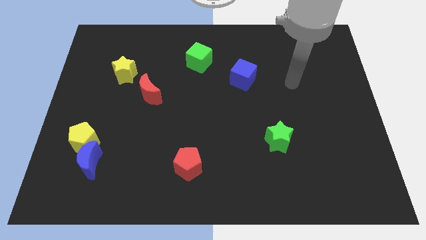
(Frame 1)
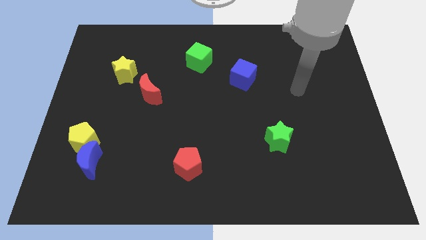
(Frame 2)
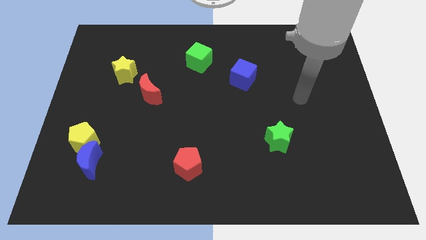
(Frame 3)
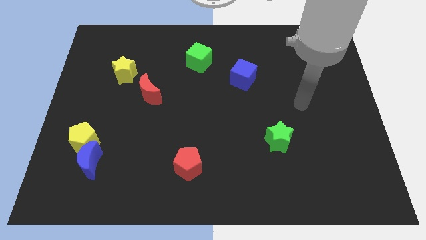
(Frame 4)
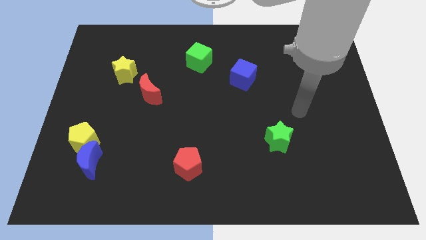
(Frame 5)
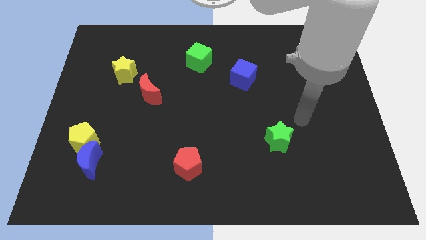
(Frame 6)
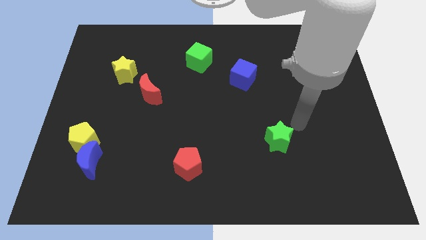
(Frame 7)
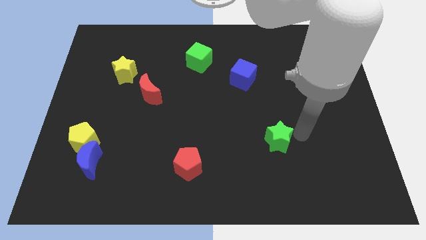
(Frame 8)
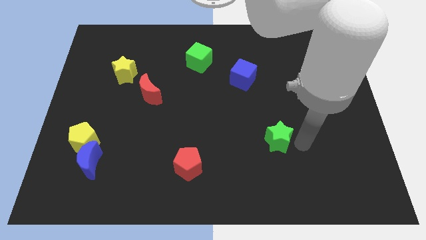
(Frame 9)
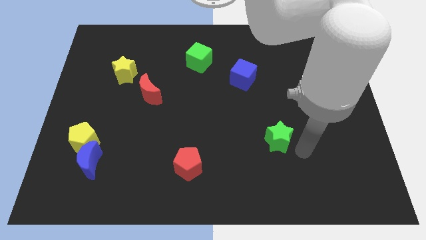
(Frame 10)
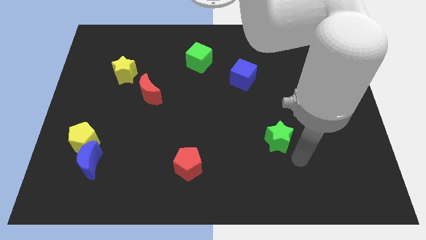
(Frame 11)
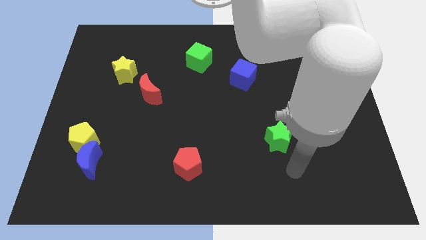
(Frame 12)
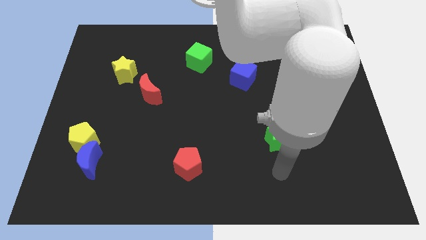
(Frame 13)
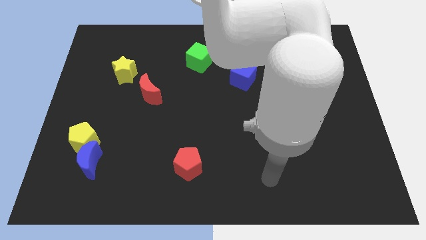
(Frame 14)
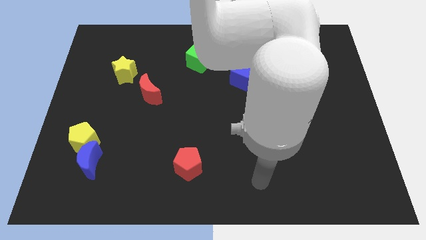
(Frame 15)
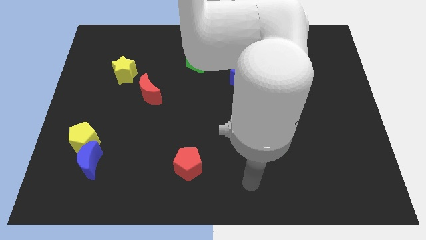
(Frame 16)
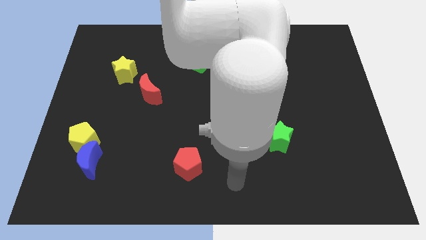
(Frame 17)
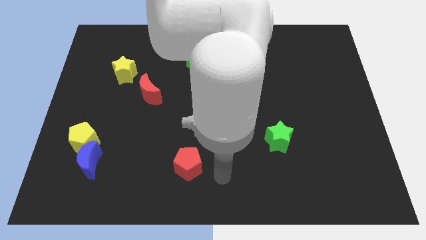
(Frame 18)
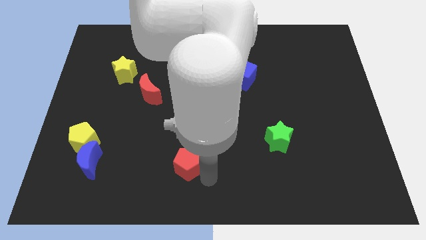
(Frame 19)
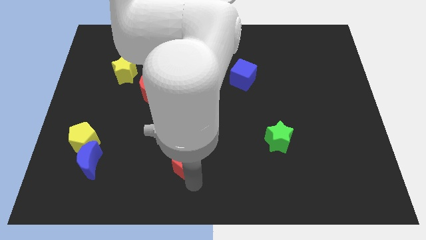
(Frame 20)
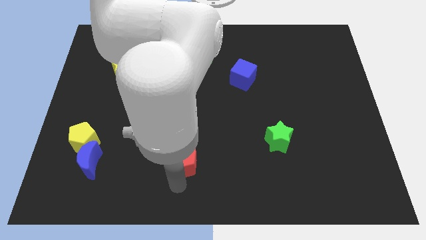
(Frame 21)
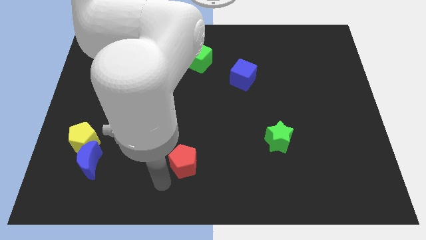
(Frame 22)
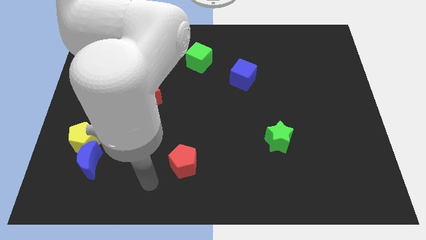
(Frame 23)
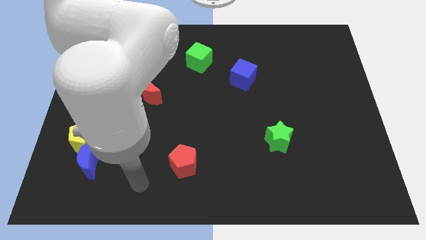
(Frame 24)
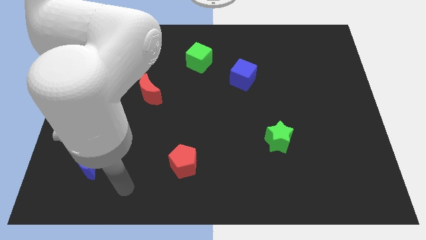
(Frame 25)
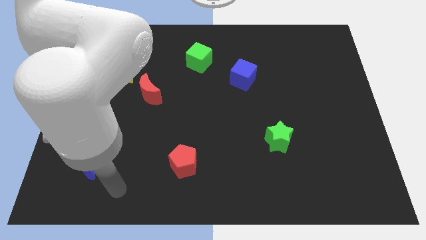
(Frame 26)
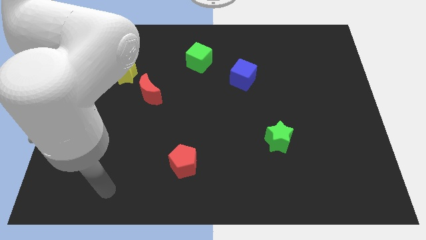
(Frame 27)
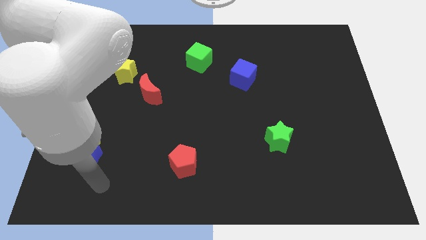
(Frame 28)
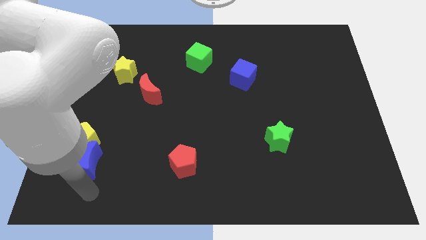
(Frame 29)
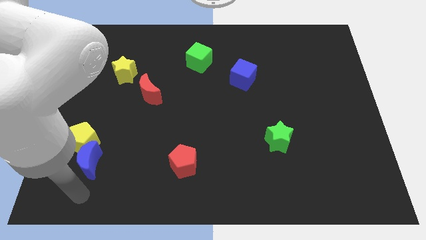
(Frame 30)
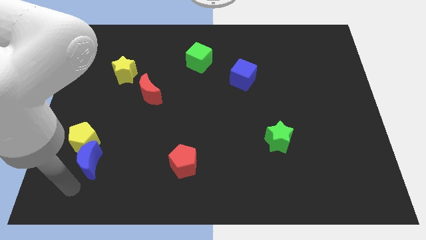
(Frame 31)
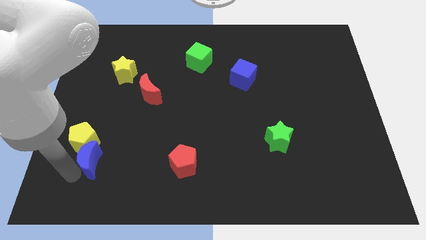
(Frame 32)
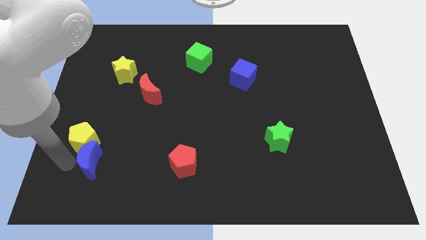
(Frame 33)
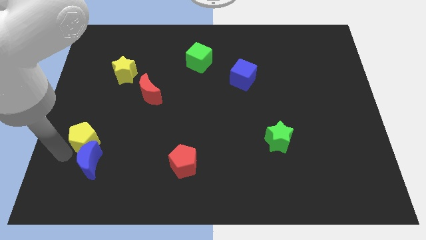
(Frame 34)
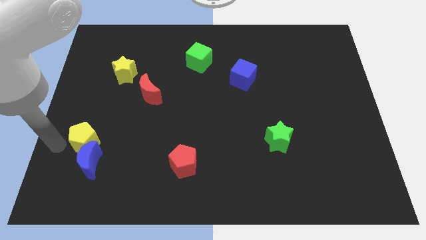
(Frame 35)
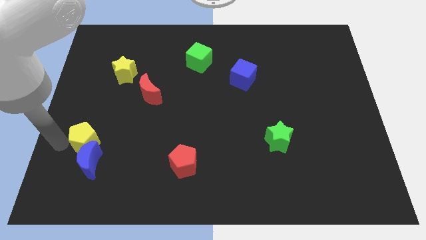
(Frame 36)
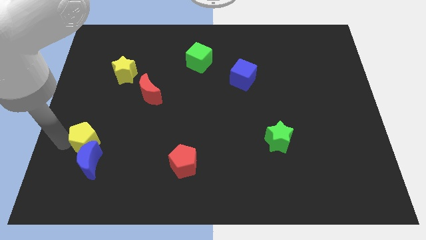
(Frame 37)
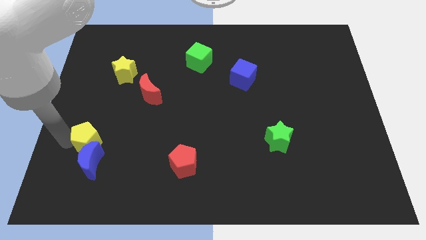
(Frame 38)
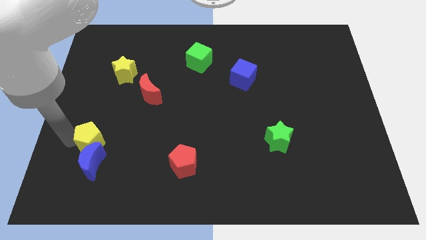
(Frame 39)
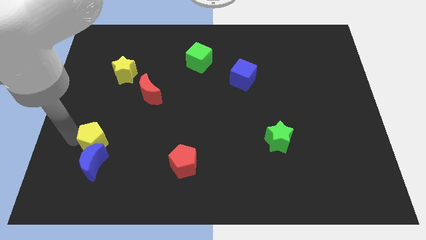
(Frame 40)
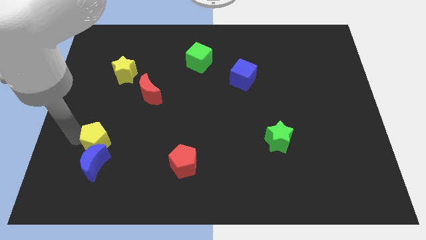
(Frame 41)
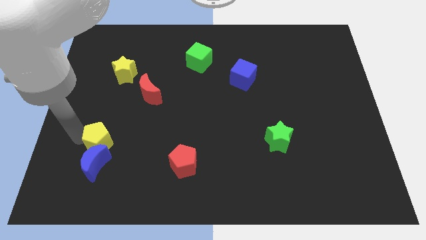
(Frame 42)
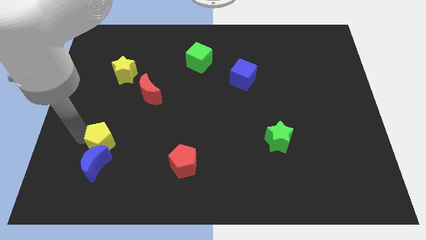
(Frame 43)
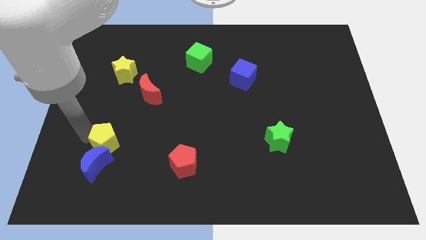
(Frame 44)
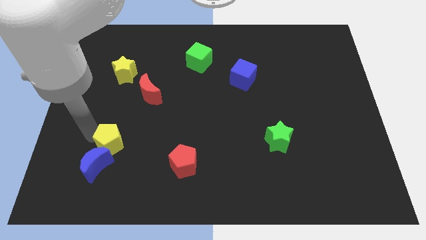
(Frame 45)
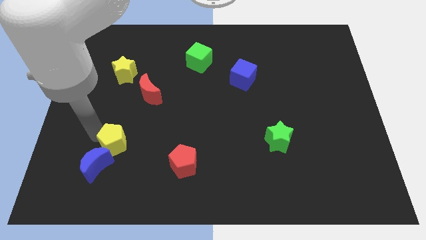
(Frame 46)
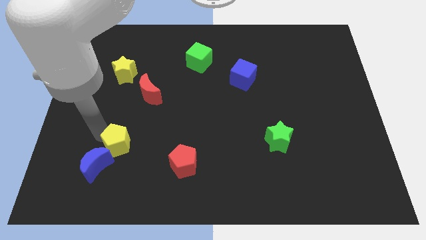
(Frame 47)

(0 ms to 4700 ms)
push the yellow pentagon a bit to the right

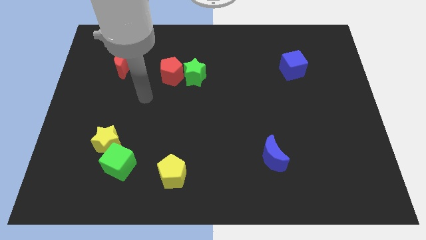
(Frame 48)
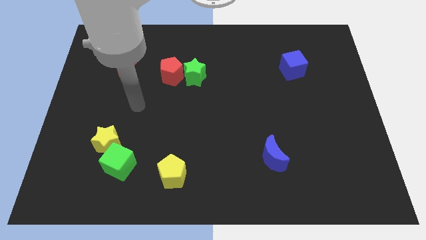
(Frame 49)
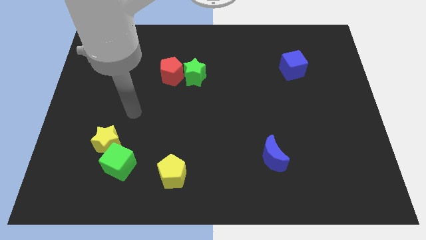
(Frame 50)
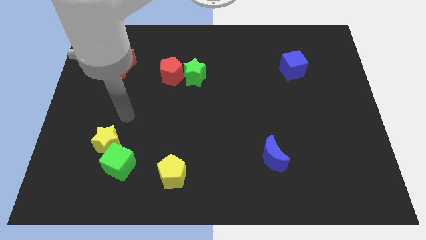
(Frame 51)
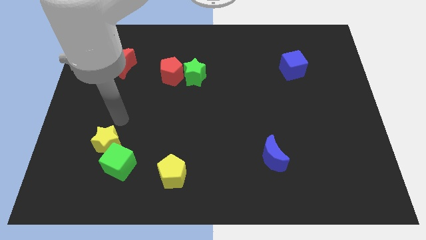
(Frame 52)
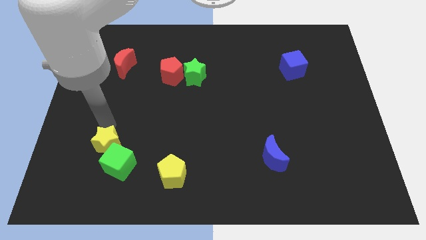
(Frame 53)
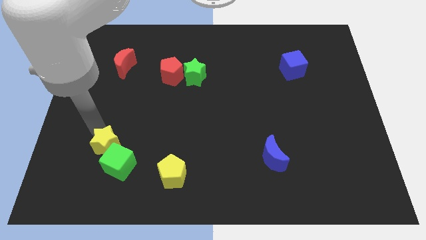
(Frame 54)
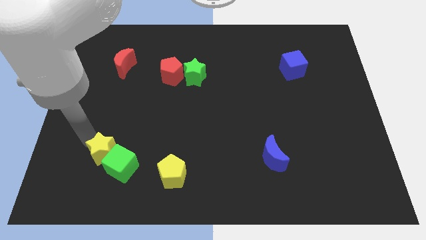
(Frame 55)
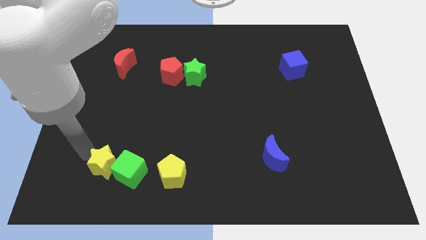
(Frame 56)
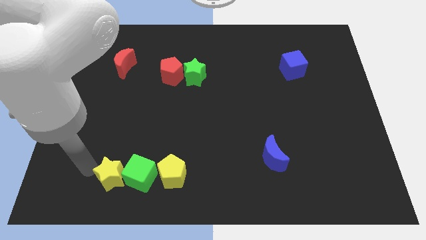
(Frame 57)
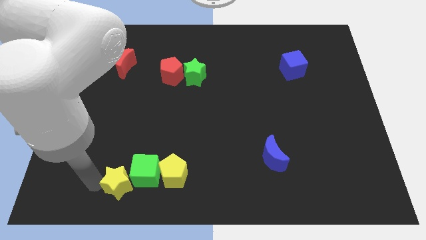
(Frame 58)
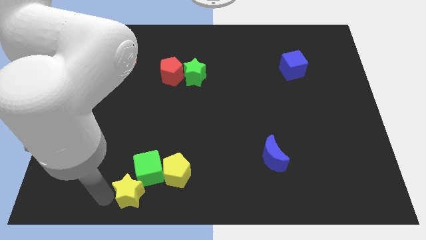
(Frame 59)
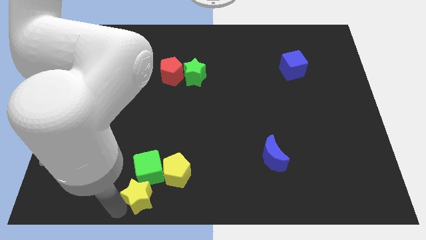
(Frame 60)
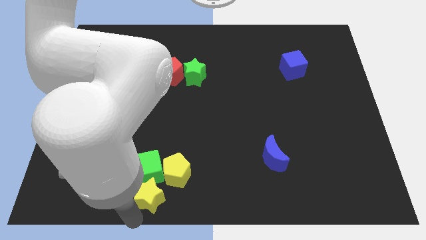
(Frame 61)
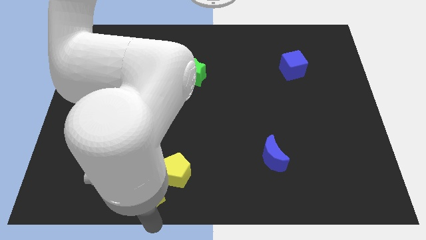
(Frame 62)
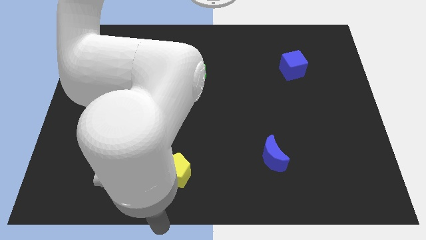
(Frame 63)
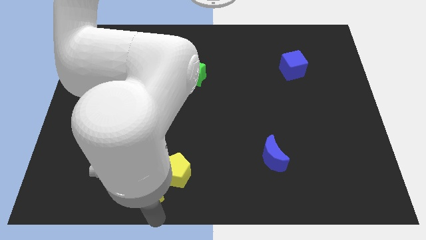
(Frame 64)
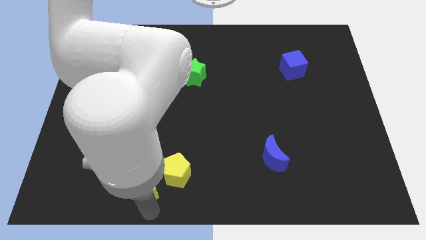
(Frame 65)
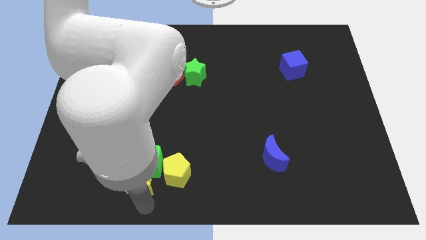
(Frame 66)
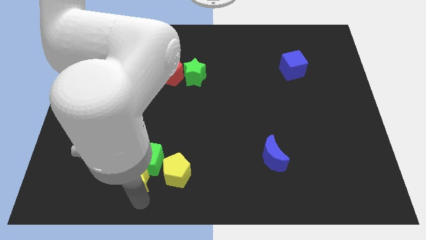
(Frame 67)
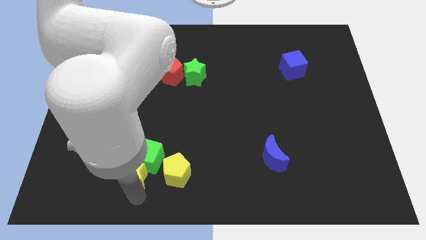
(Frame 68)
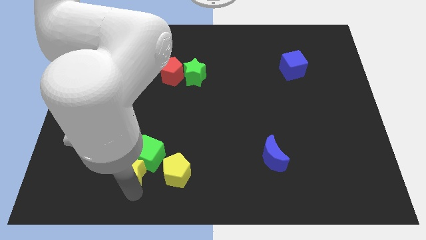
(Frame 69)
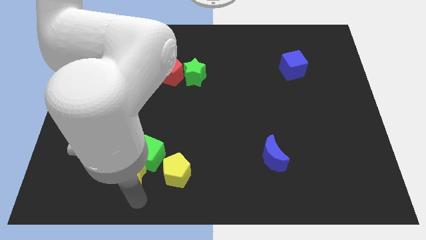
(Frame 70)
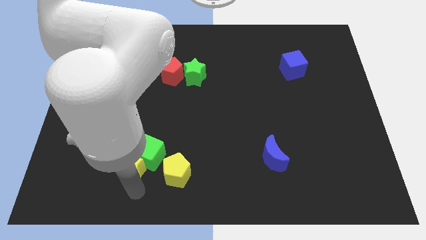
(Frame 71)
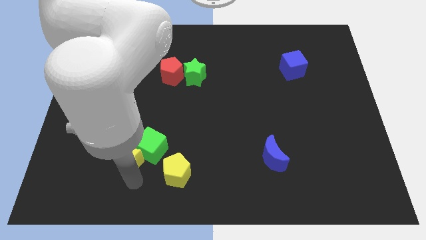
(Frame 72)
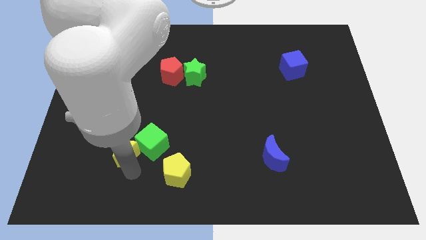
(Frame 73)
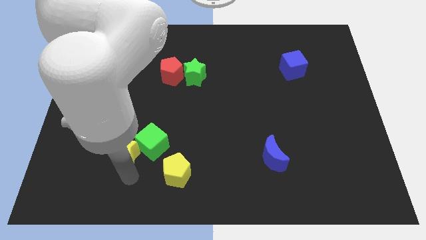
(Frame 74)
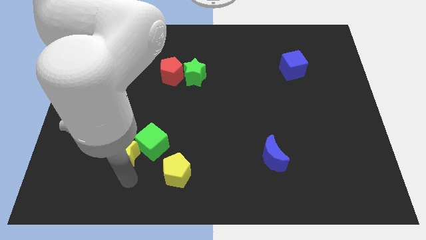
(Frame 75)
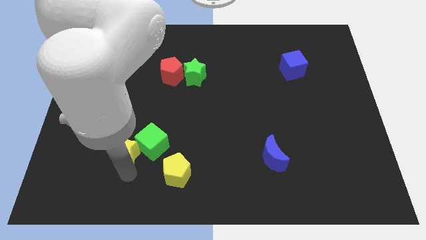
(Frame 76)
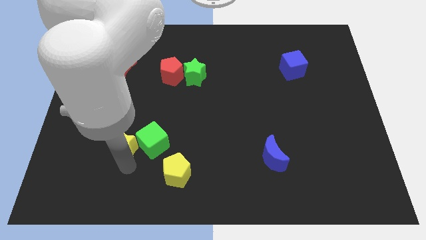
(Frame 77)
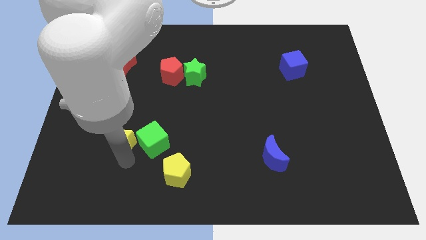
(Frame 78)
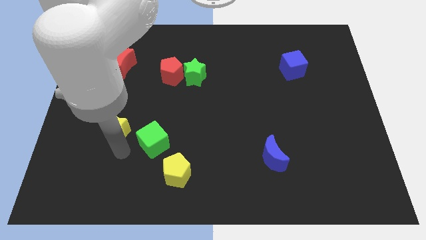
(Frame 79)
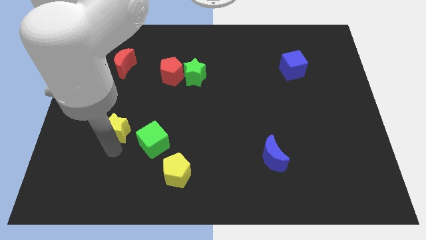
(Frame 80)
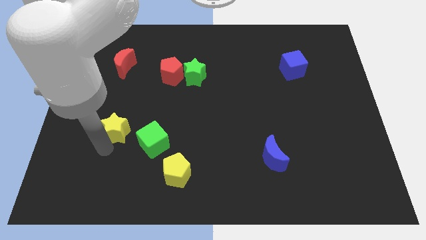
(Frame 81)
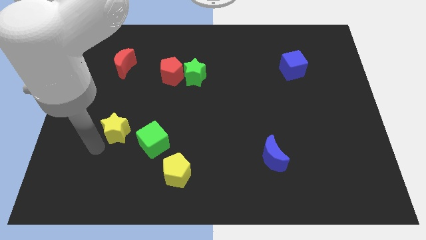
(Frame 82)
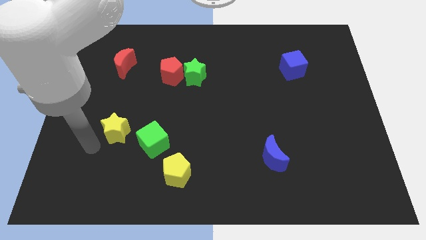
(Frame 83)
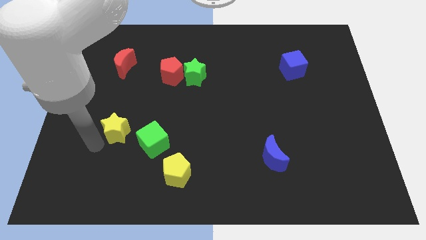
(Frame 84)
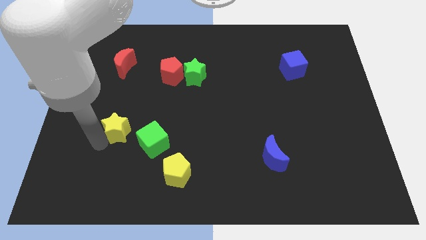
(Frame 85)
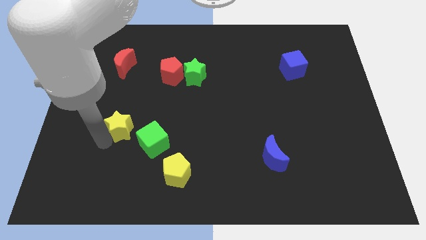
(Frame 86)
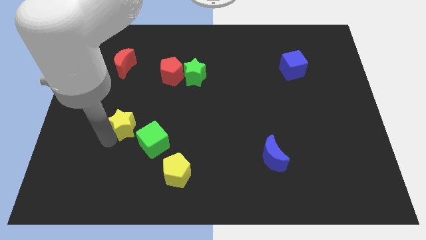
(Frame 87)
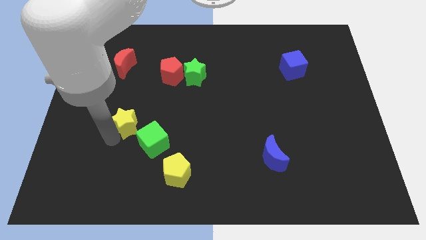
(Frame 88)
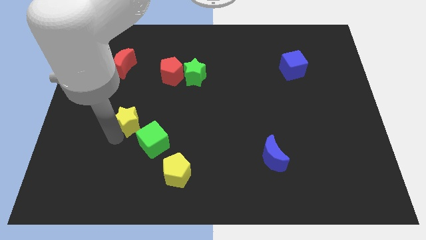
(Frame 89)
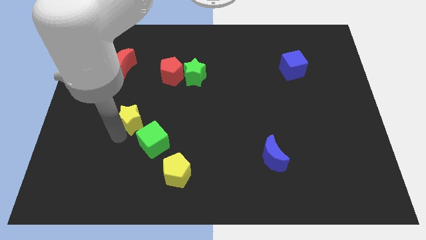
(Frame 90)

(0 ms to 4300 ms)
push the yellow star up and right diagonally a little
